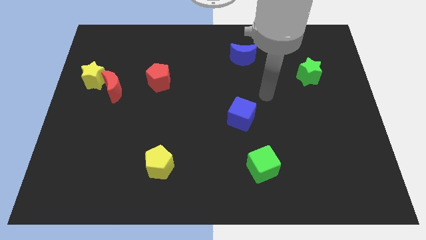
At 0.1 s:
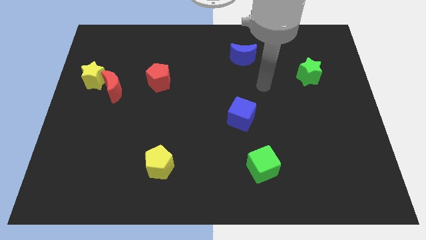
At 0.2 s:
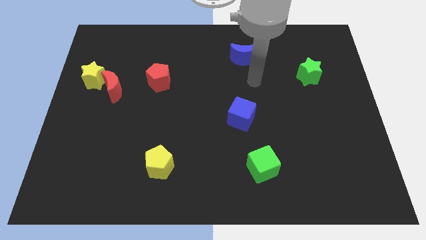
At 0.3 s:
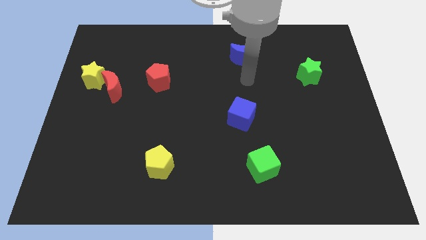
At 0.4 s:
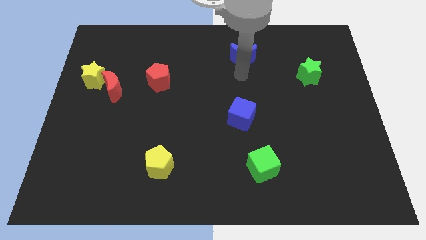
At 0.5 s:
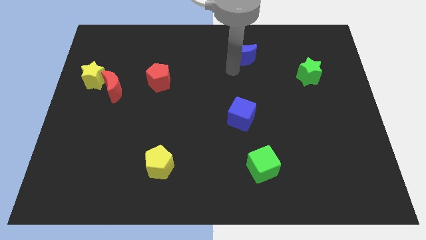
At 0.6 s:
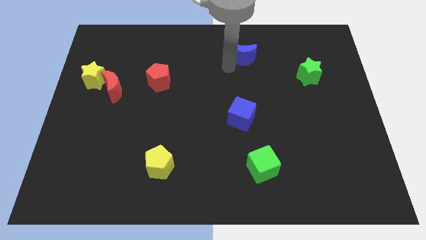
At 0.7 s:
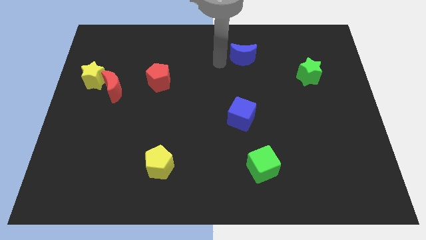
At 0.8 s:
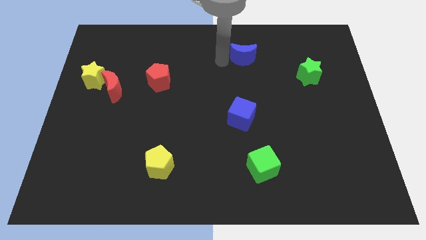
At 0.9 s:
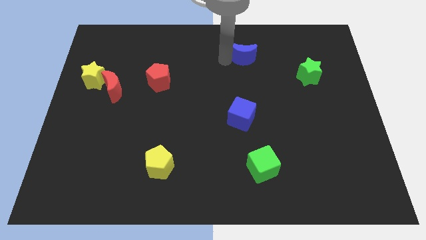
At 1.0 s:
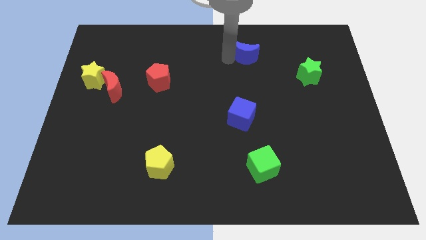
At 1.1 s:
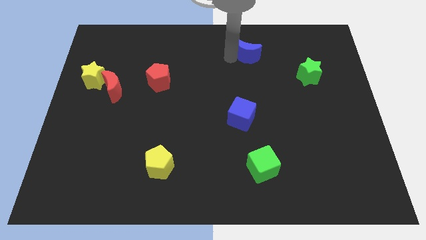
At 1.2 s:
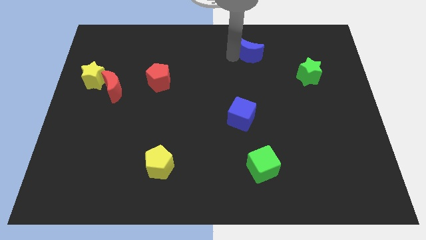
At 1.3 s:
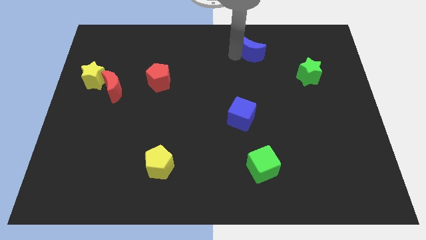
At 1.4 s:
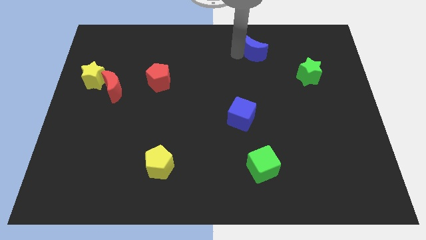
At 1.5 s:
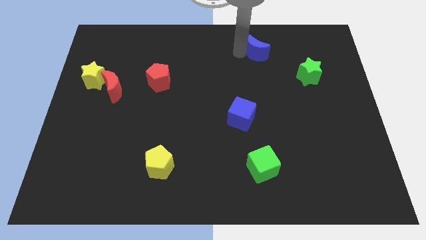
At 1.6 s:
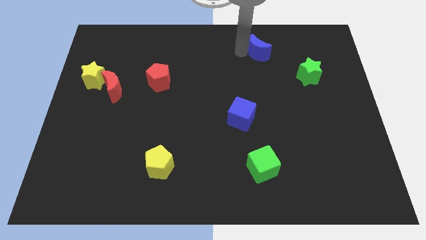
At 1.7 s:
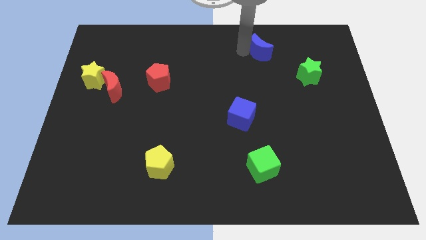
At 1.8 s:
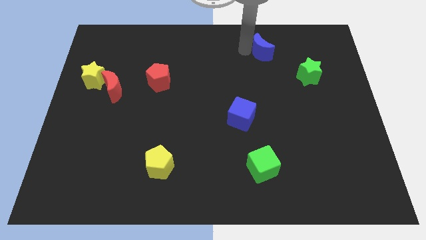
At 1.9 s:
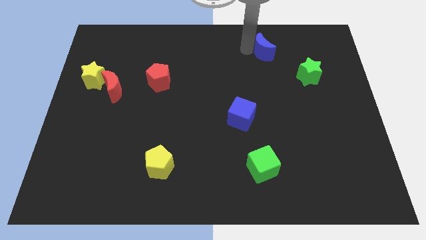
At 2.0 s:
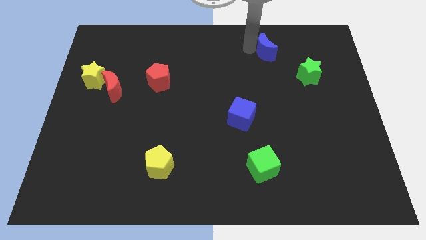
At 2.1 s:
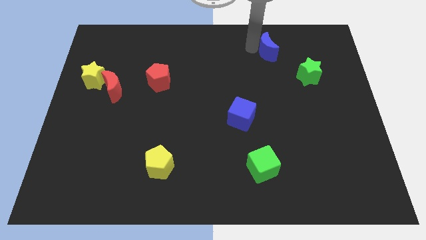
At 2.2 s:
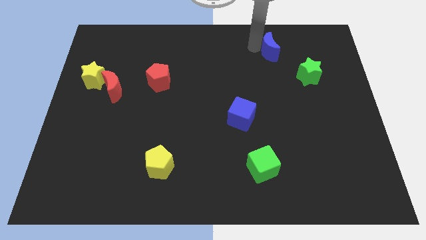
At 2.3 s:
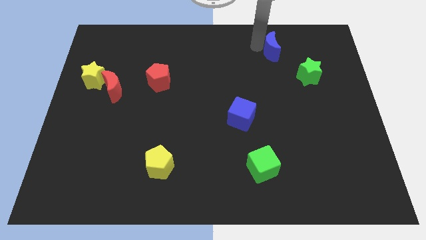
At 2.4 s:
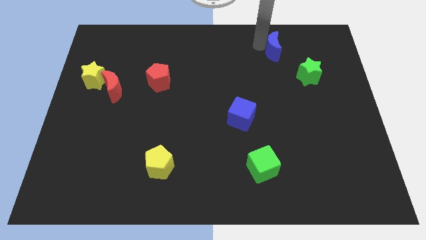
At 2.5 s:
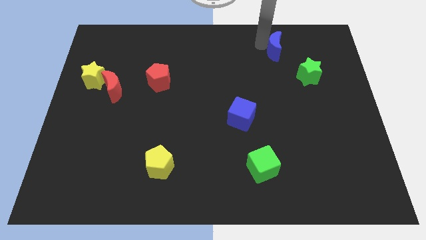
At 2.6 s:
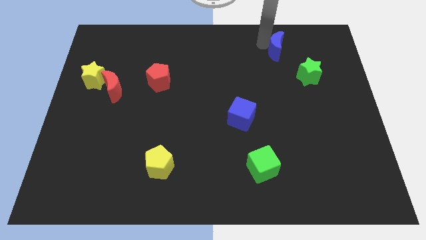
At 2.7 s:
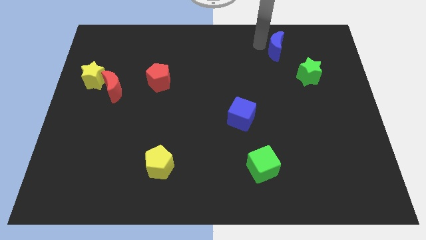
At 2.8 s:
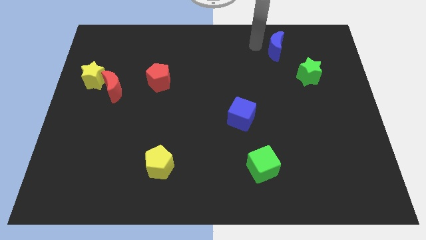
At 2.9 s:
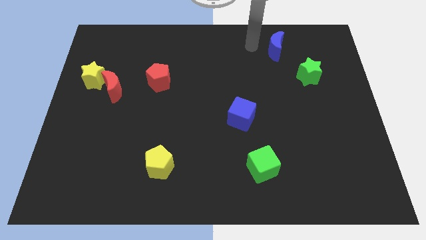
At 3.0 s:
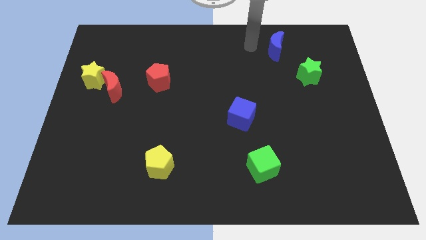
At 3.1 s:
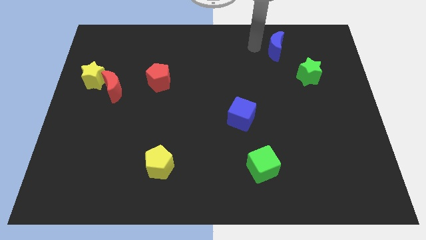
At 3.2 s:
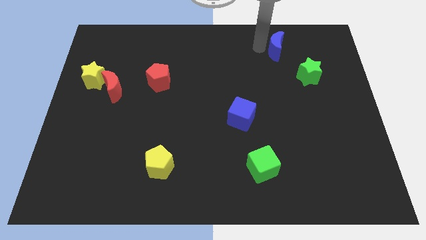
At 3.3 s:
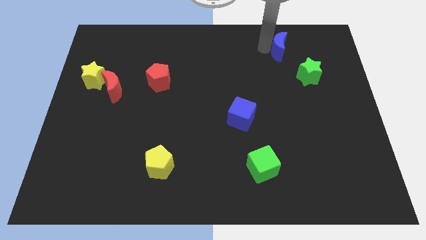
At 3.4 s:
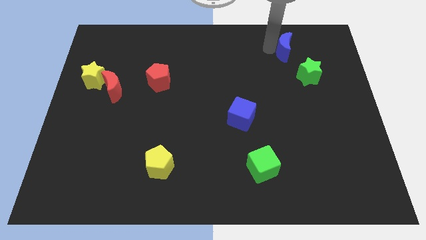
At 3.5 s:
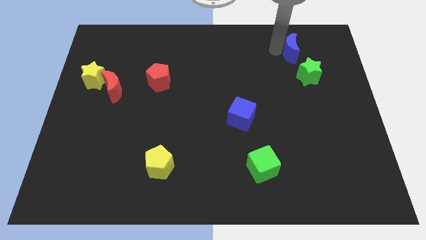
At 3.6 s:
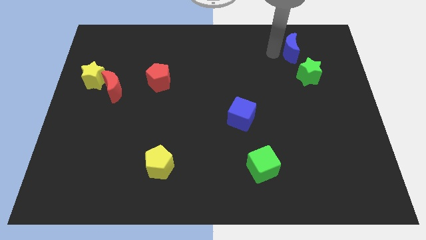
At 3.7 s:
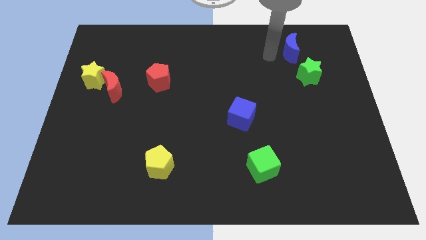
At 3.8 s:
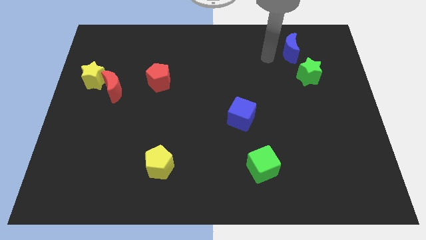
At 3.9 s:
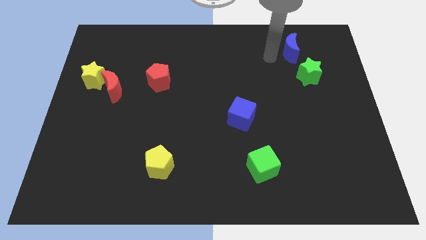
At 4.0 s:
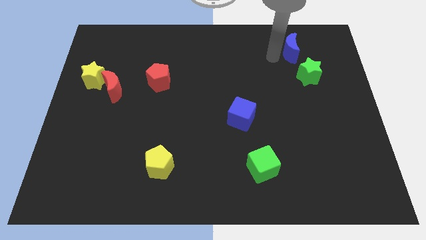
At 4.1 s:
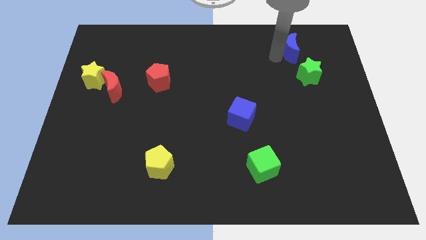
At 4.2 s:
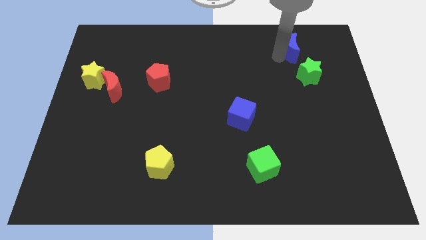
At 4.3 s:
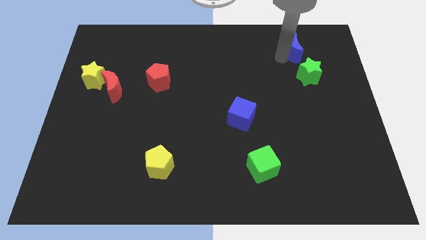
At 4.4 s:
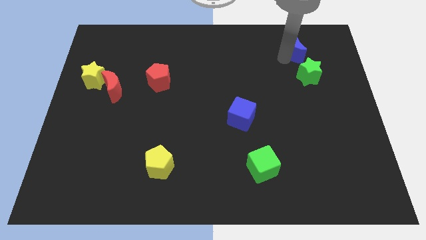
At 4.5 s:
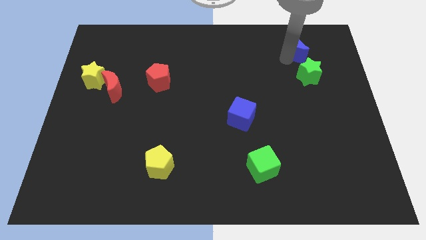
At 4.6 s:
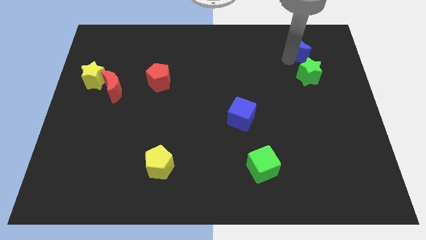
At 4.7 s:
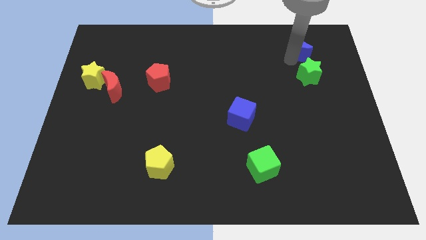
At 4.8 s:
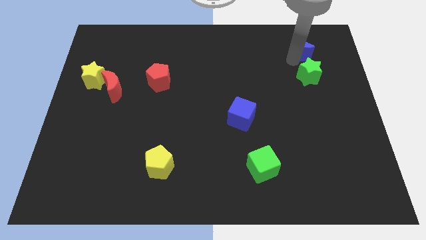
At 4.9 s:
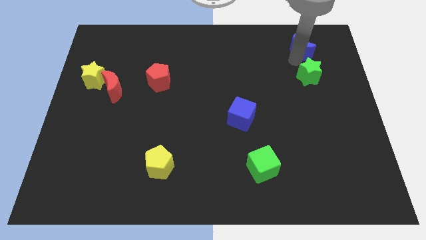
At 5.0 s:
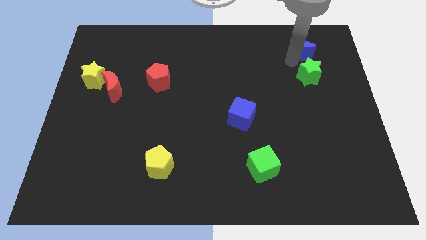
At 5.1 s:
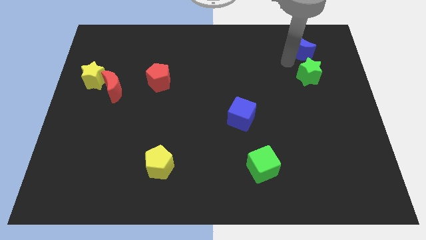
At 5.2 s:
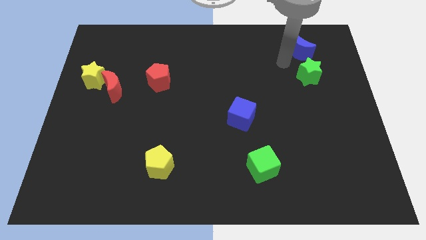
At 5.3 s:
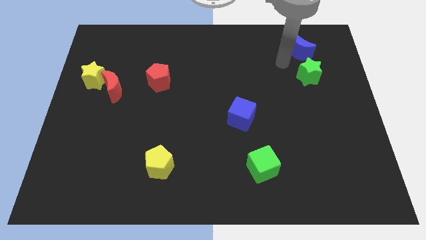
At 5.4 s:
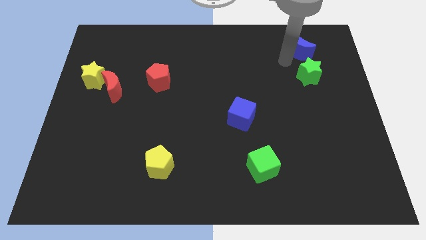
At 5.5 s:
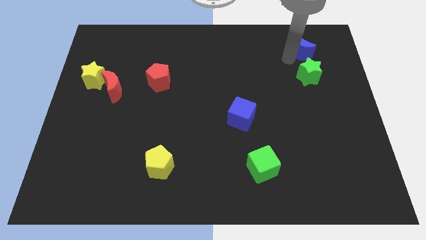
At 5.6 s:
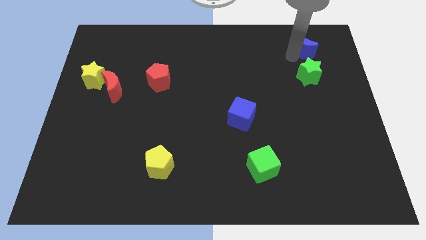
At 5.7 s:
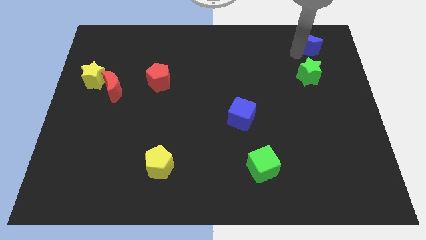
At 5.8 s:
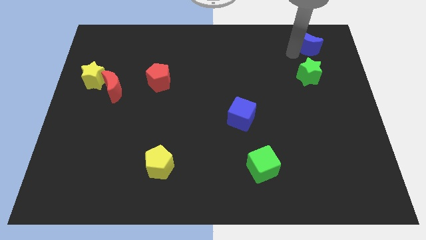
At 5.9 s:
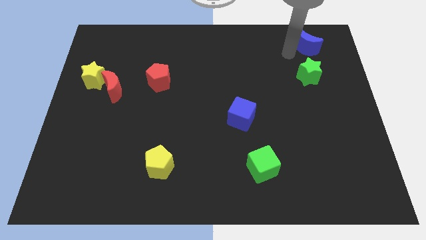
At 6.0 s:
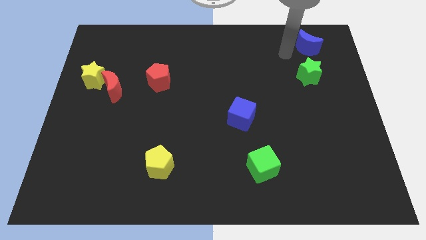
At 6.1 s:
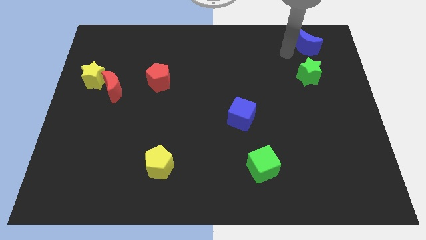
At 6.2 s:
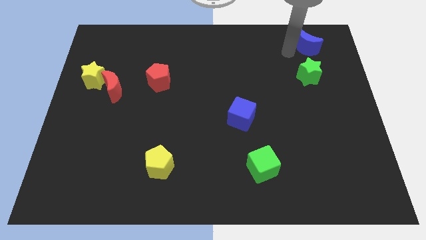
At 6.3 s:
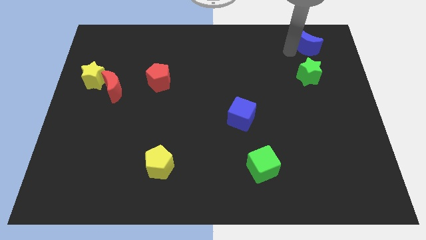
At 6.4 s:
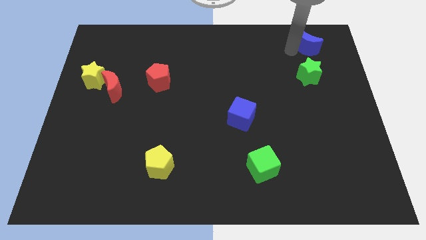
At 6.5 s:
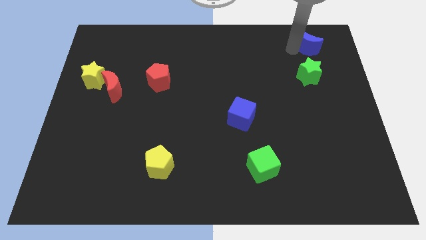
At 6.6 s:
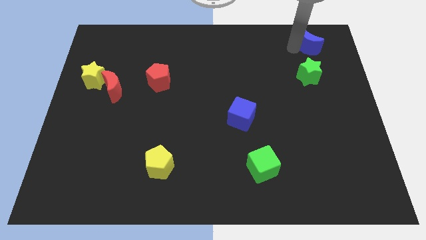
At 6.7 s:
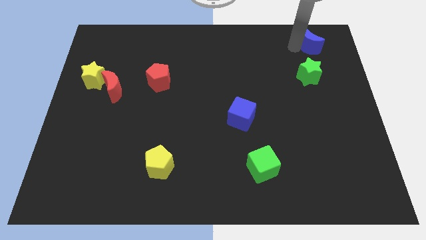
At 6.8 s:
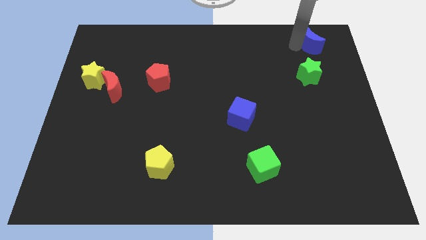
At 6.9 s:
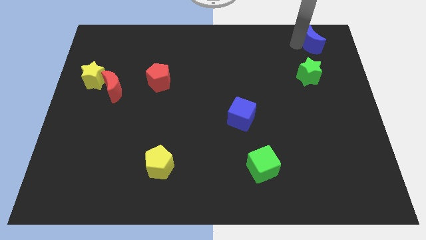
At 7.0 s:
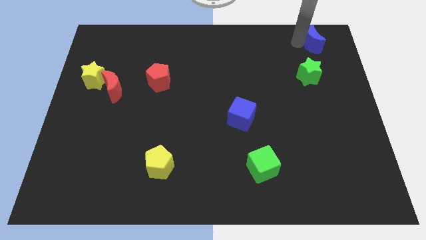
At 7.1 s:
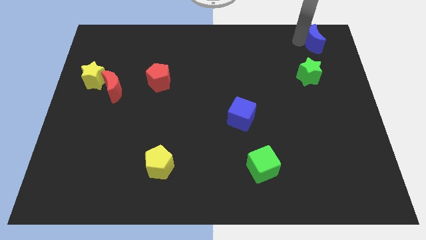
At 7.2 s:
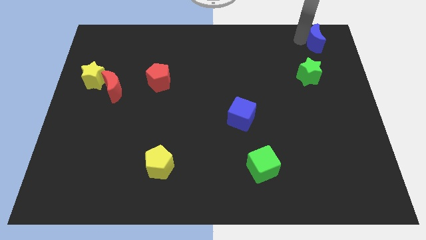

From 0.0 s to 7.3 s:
push the blue moon to the top right

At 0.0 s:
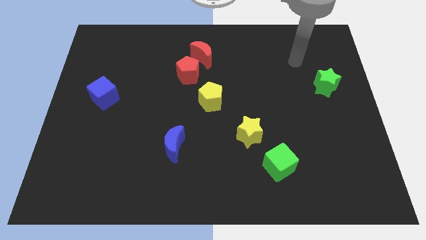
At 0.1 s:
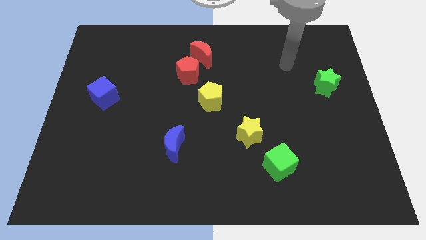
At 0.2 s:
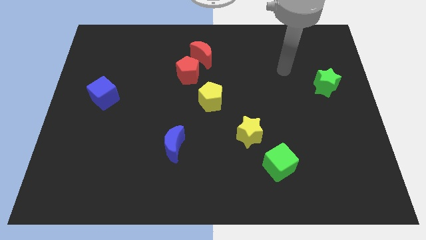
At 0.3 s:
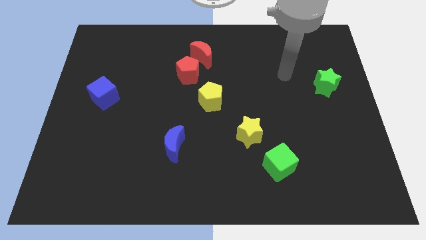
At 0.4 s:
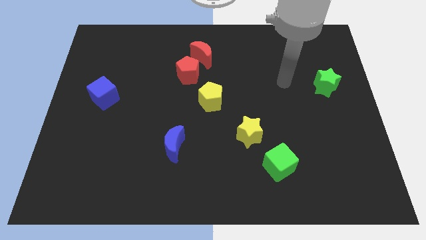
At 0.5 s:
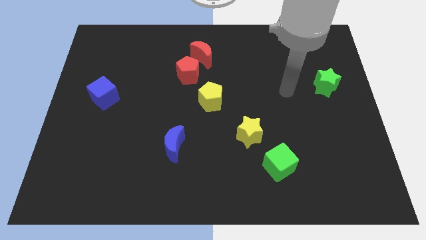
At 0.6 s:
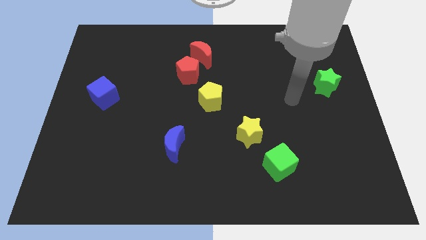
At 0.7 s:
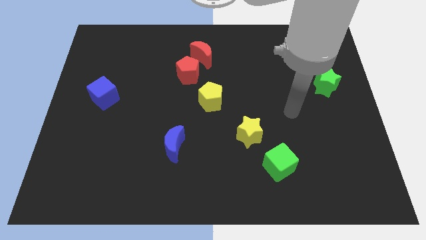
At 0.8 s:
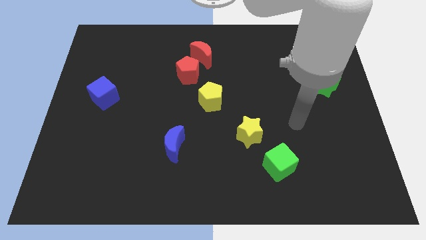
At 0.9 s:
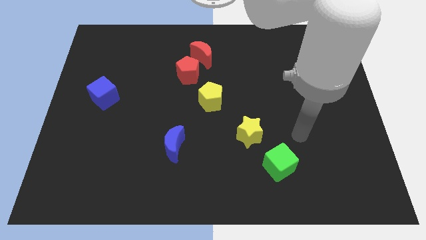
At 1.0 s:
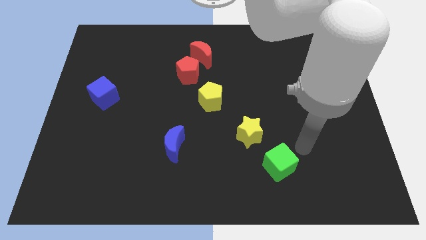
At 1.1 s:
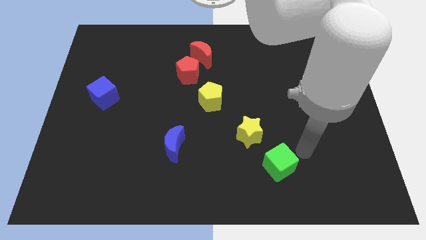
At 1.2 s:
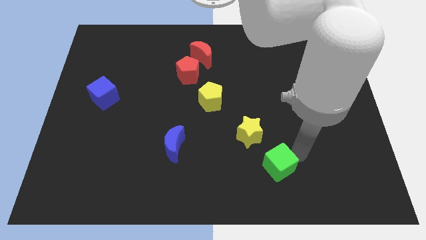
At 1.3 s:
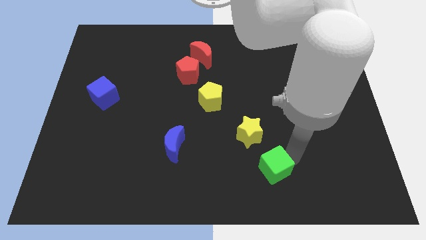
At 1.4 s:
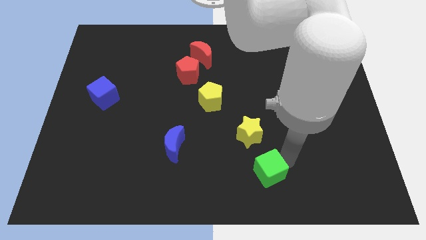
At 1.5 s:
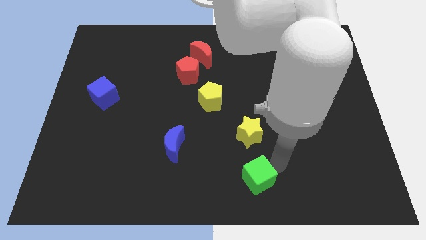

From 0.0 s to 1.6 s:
move the green cube to the bottom
